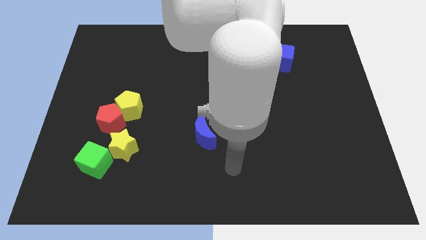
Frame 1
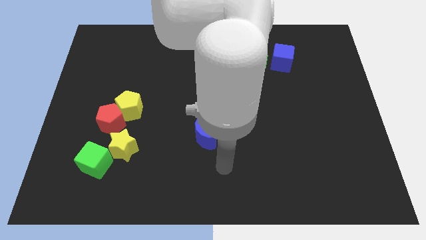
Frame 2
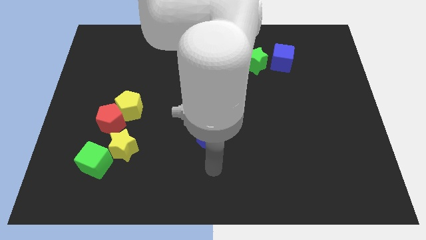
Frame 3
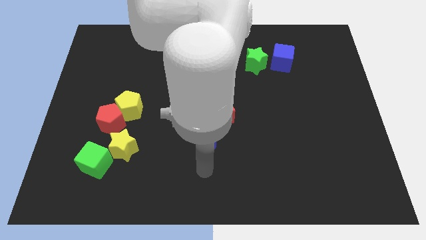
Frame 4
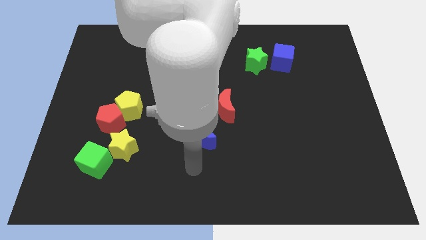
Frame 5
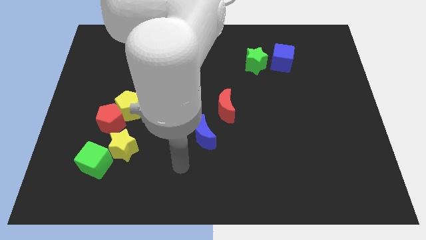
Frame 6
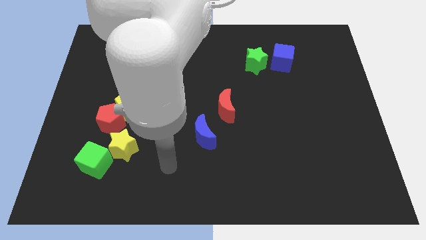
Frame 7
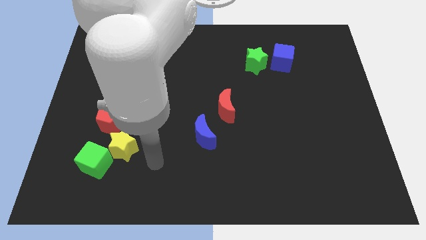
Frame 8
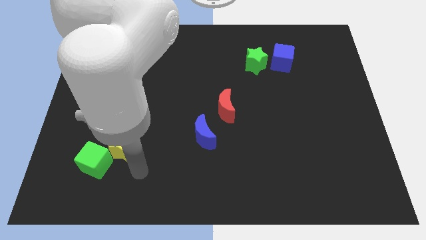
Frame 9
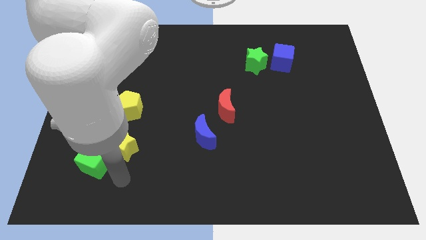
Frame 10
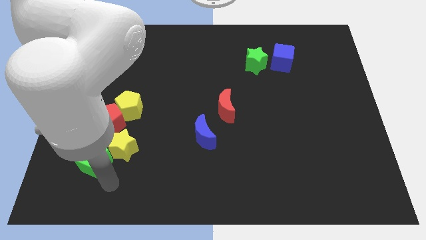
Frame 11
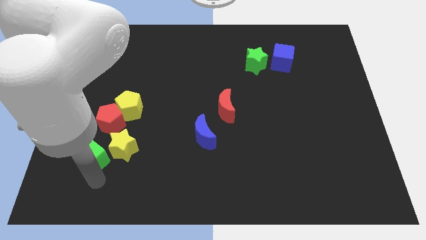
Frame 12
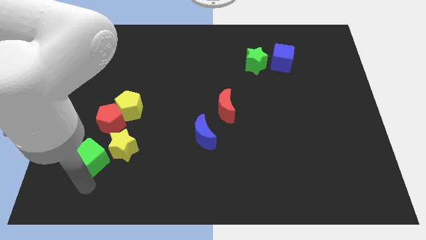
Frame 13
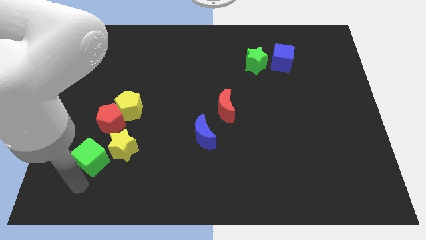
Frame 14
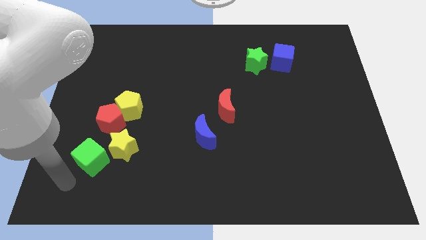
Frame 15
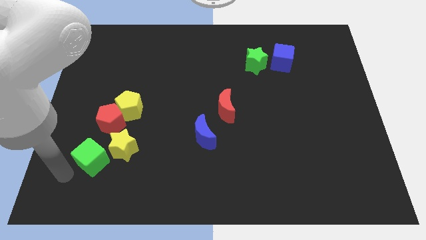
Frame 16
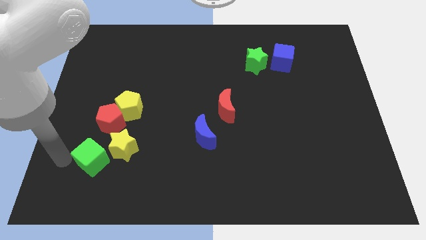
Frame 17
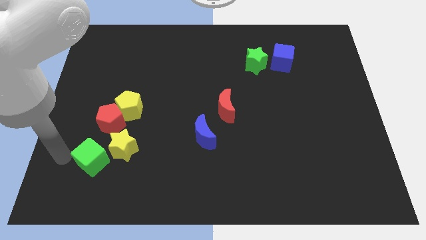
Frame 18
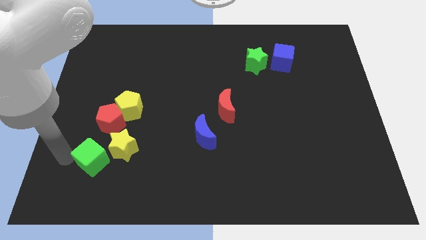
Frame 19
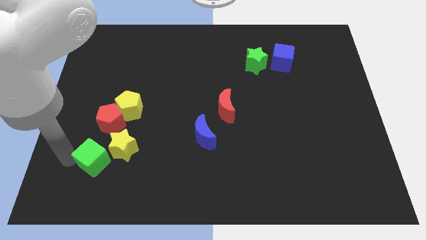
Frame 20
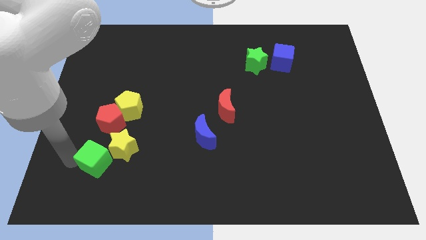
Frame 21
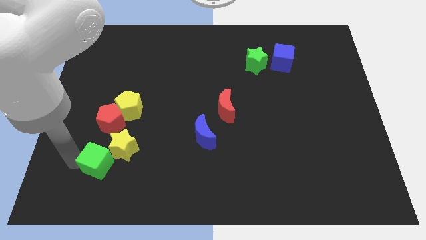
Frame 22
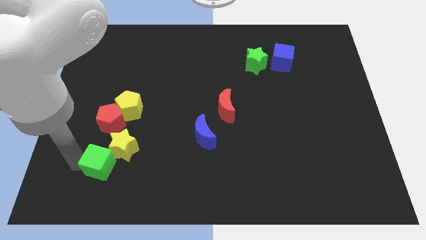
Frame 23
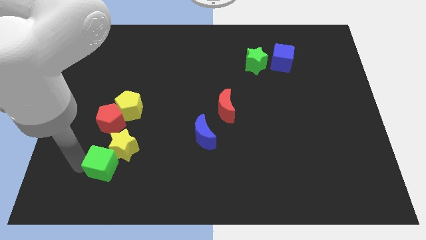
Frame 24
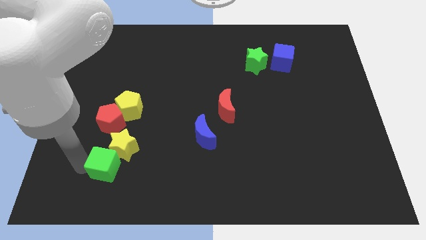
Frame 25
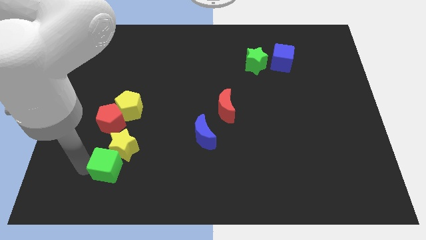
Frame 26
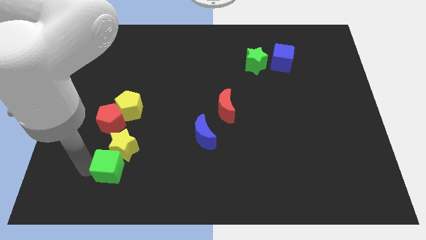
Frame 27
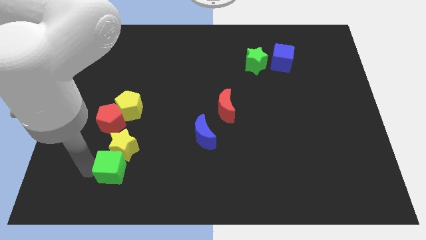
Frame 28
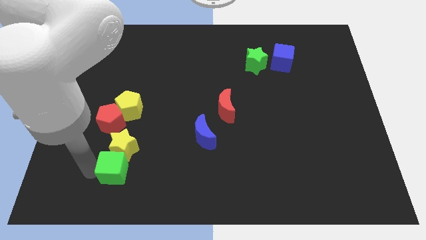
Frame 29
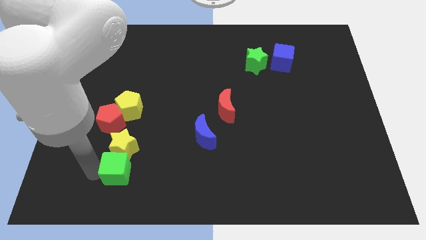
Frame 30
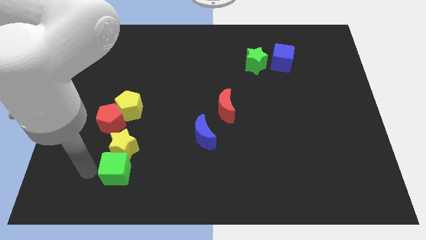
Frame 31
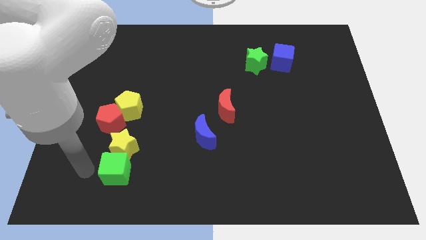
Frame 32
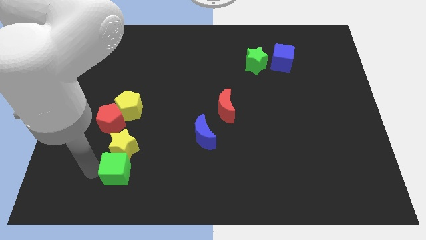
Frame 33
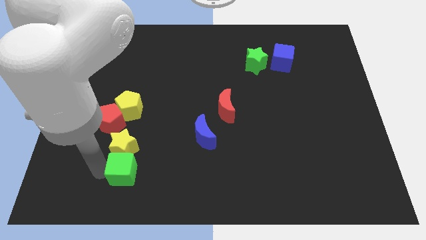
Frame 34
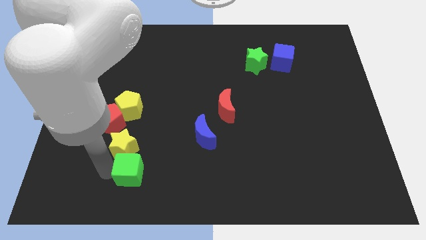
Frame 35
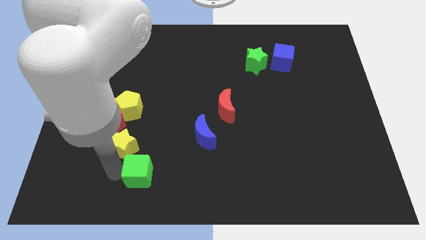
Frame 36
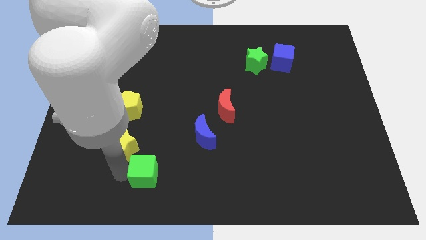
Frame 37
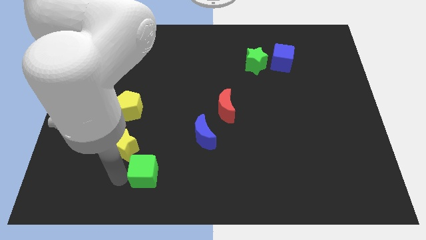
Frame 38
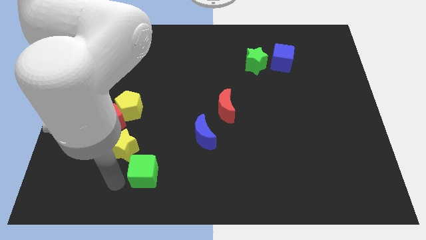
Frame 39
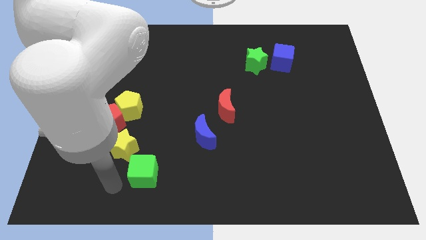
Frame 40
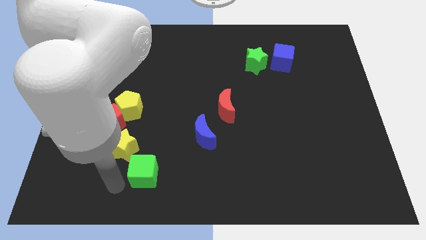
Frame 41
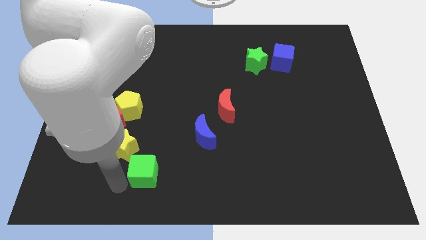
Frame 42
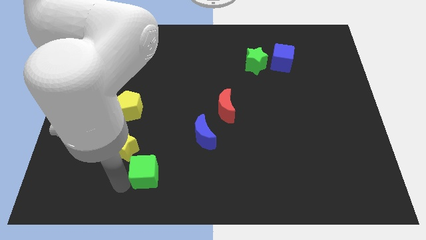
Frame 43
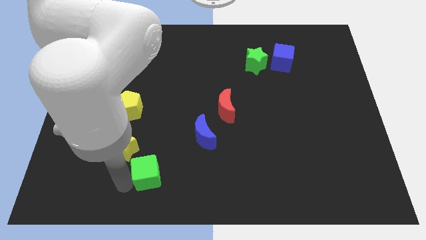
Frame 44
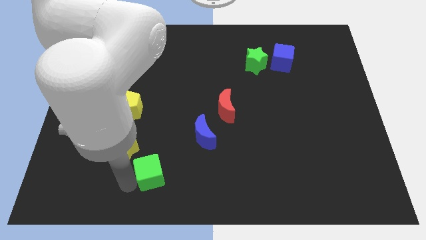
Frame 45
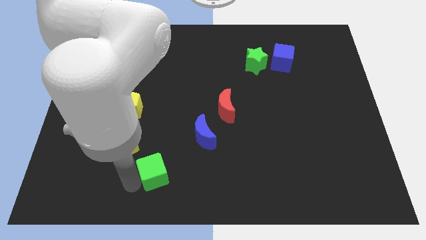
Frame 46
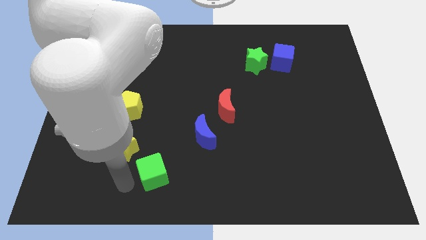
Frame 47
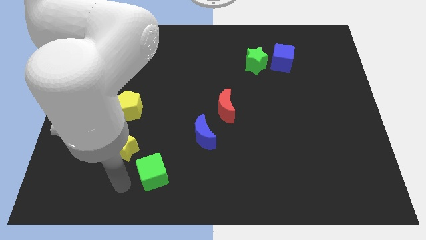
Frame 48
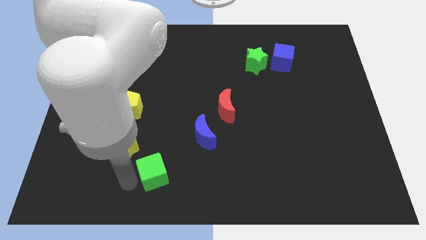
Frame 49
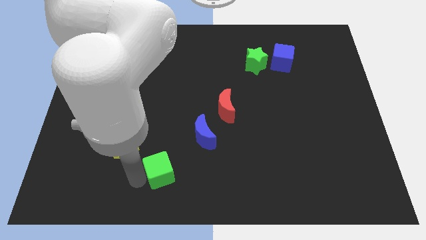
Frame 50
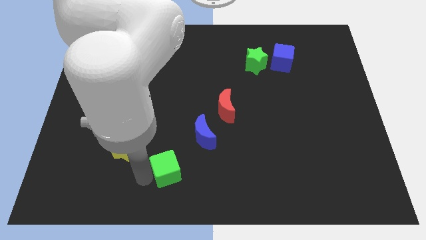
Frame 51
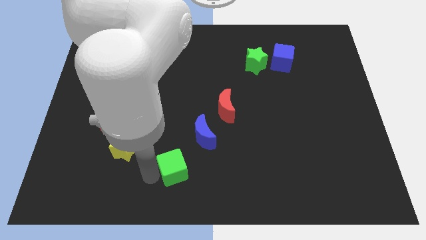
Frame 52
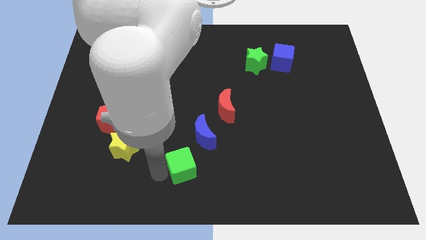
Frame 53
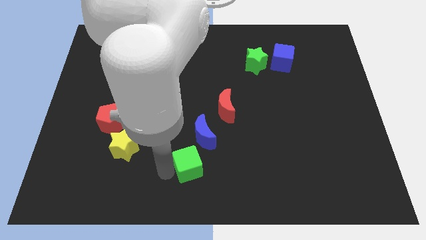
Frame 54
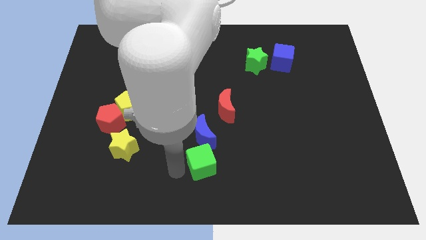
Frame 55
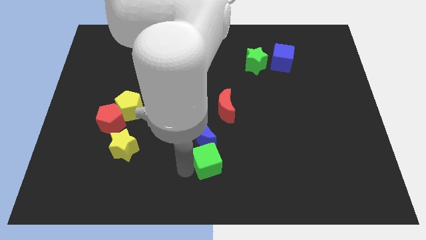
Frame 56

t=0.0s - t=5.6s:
slide the green cube to the bottom of the red moon

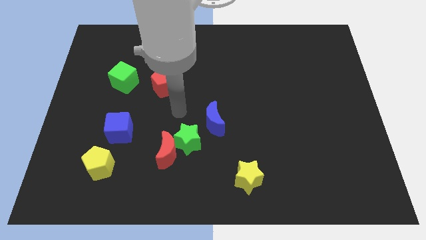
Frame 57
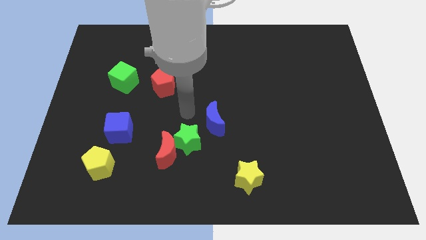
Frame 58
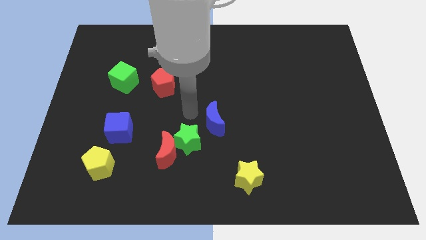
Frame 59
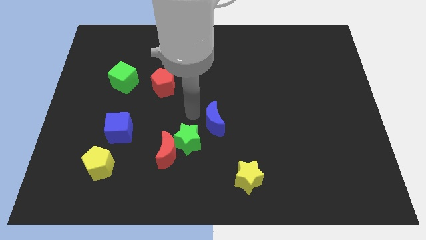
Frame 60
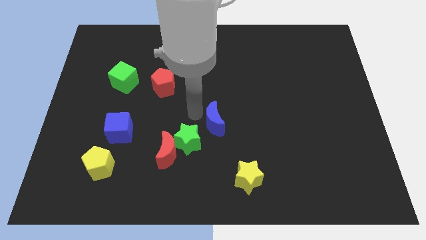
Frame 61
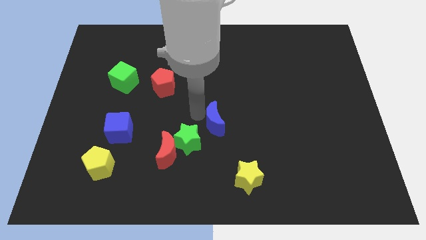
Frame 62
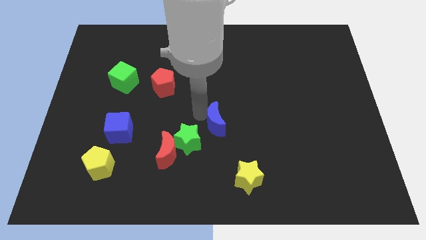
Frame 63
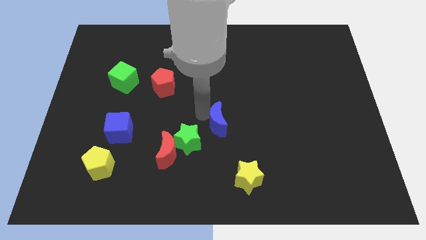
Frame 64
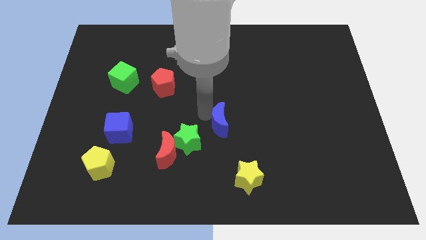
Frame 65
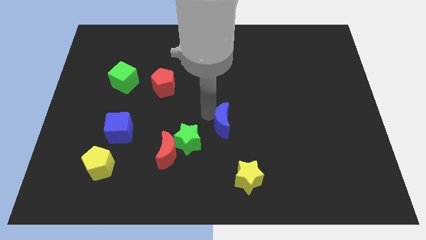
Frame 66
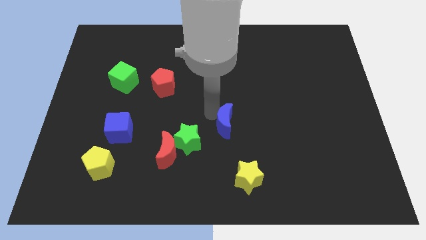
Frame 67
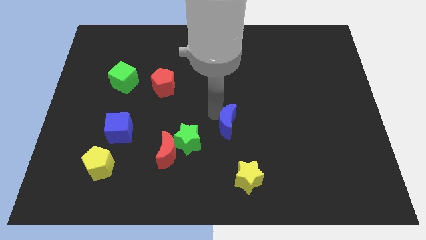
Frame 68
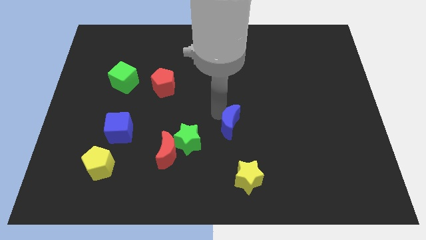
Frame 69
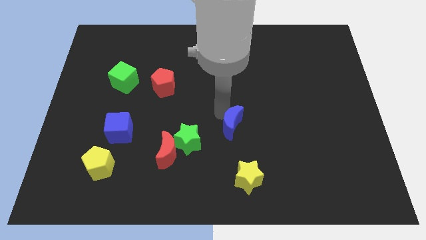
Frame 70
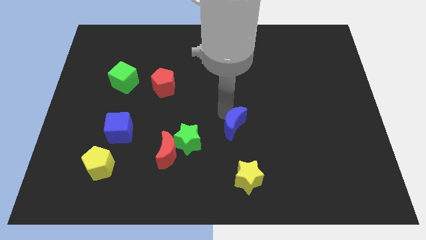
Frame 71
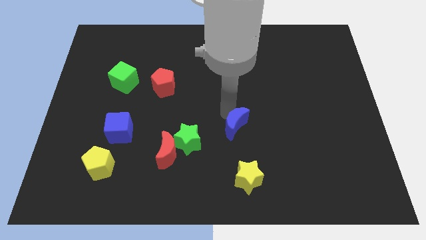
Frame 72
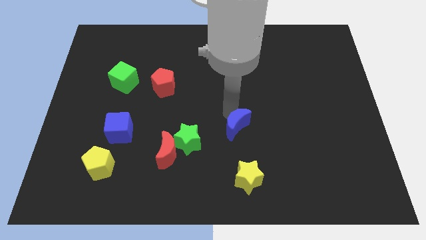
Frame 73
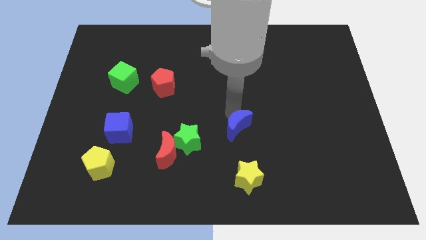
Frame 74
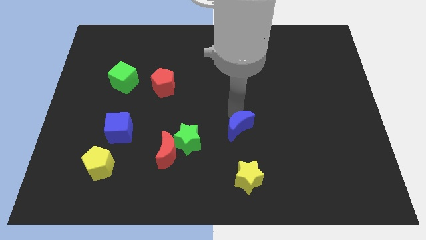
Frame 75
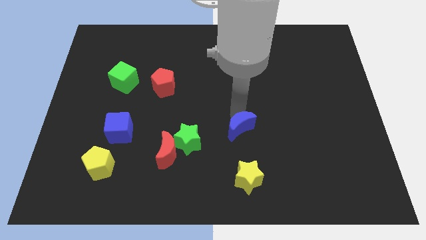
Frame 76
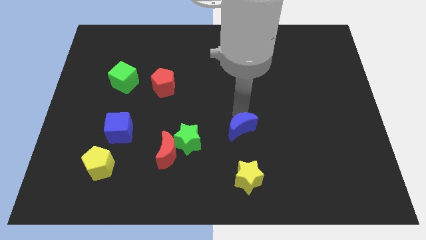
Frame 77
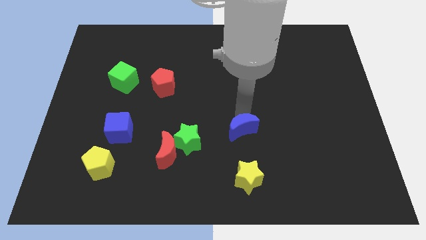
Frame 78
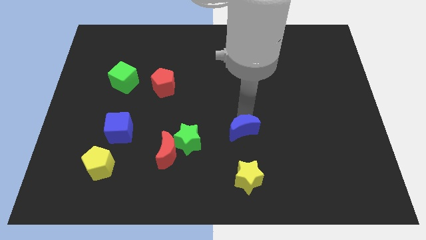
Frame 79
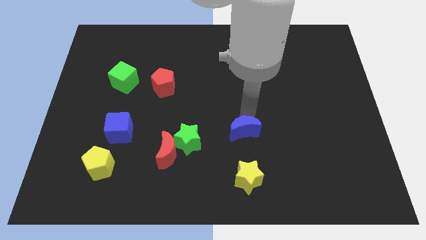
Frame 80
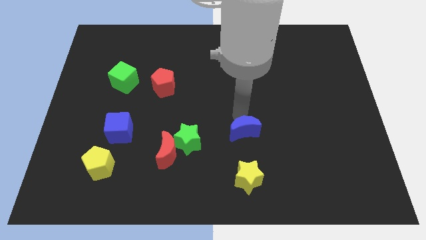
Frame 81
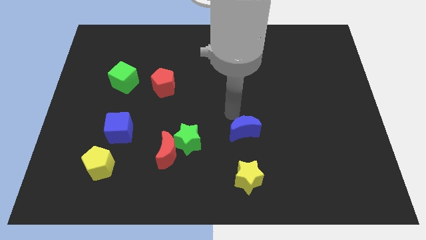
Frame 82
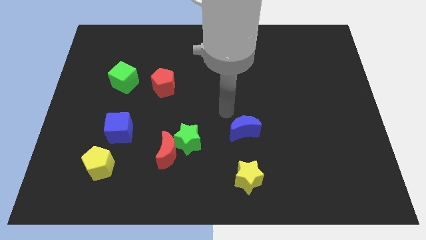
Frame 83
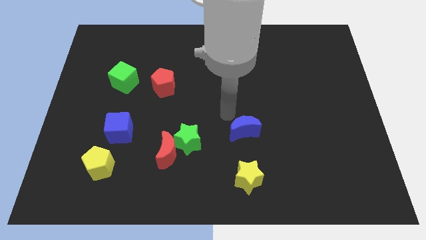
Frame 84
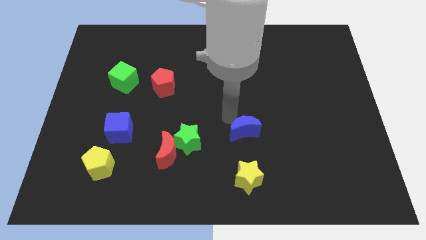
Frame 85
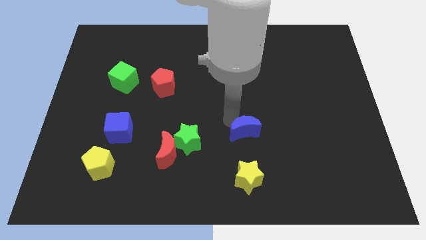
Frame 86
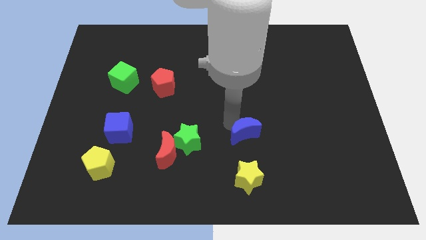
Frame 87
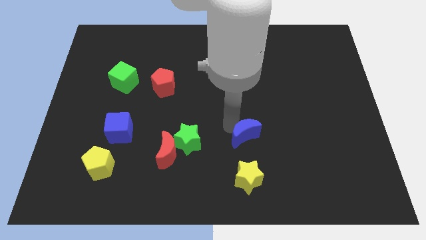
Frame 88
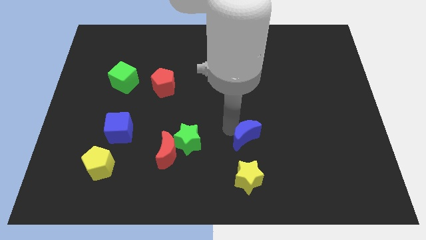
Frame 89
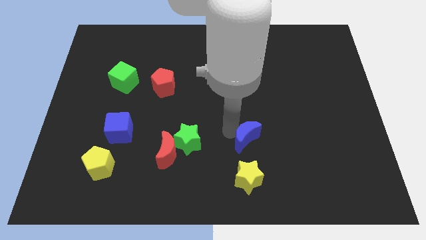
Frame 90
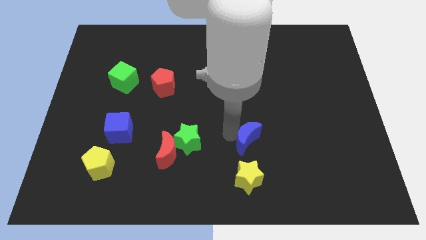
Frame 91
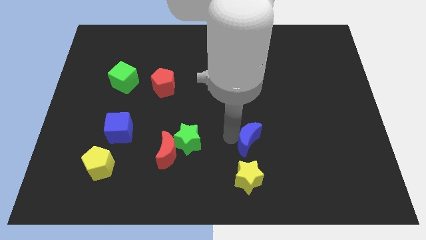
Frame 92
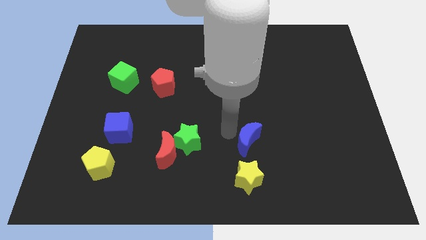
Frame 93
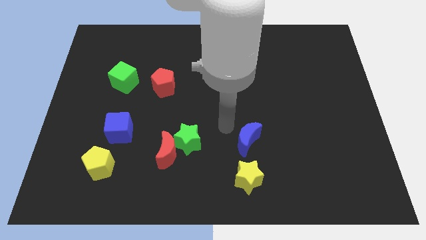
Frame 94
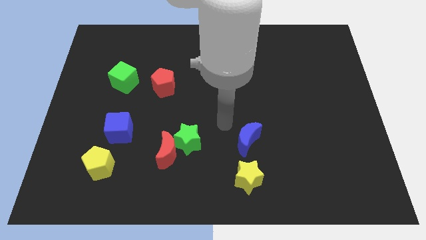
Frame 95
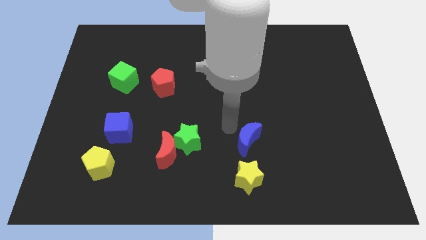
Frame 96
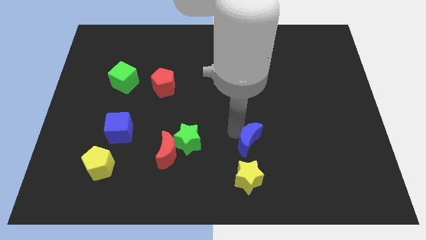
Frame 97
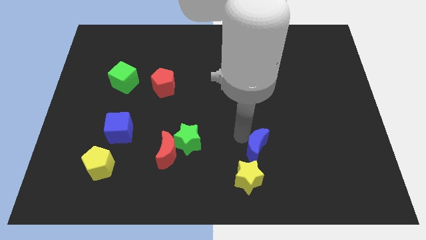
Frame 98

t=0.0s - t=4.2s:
slide the blue moon diagonally up and to the right of the yellow star
